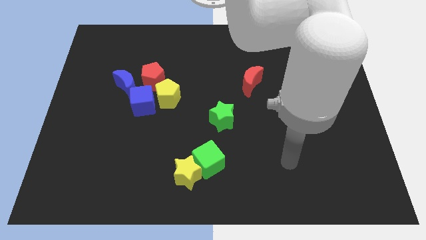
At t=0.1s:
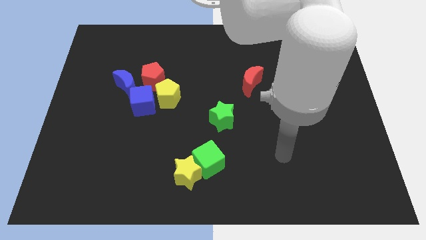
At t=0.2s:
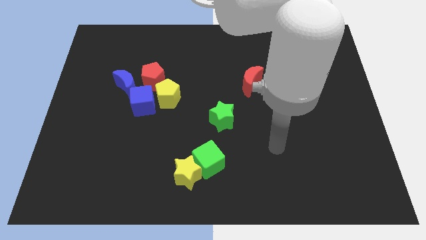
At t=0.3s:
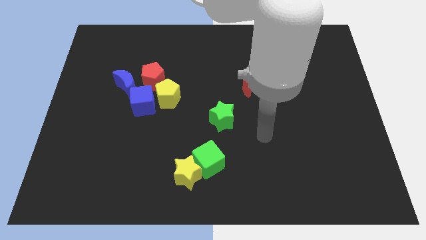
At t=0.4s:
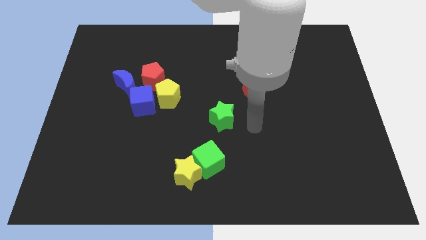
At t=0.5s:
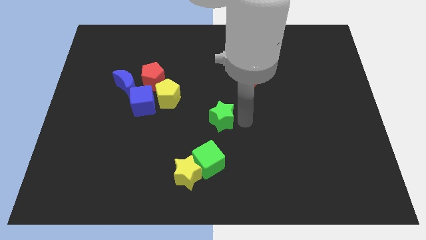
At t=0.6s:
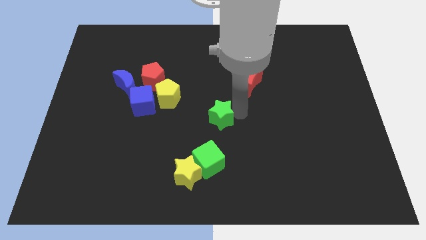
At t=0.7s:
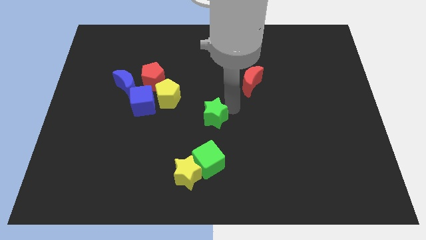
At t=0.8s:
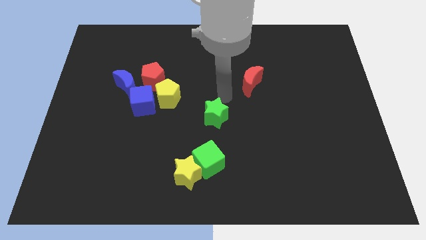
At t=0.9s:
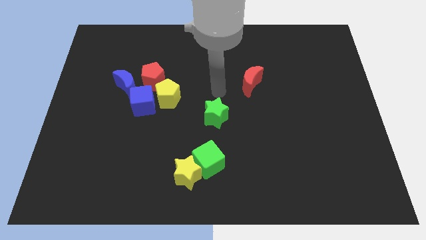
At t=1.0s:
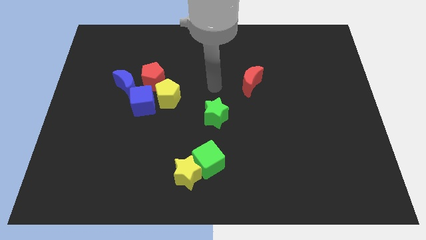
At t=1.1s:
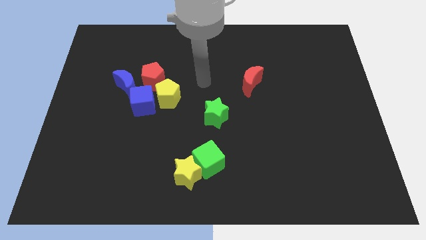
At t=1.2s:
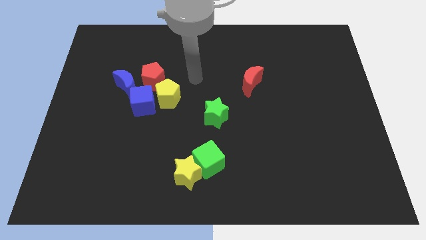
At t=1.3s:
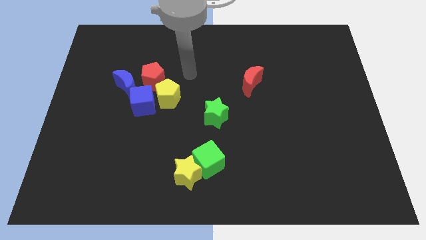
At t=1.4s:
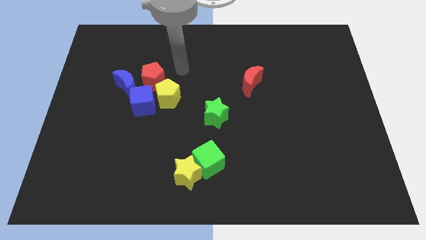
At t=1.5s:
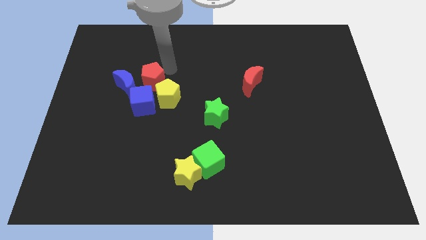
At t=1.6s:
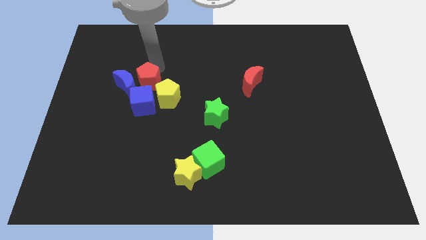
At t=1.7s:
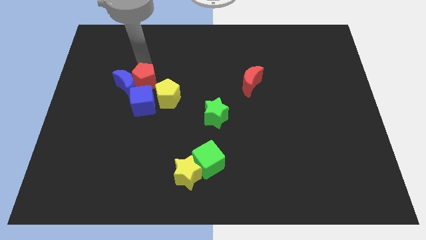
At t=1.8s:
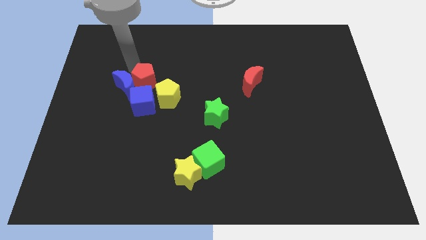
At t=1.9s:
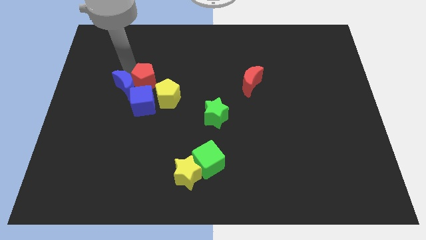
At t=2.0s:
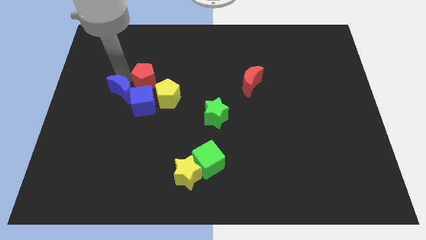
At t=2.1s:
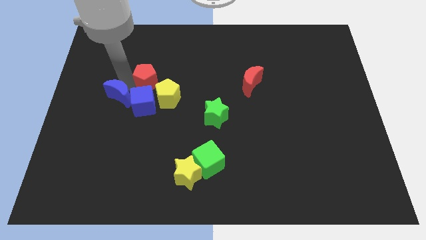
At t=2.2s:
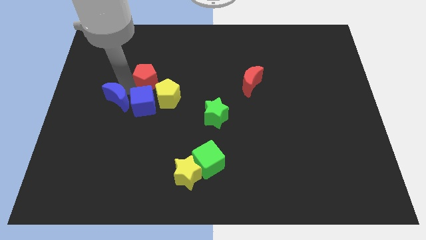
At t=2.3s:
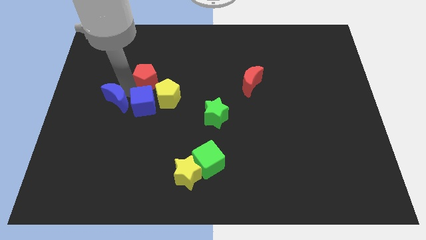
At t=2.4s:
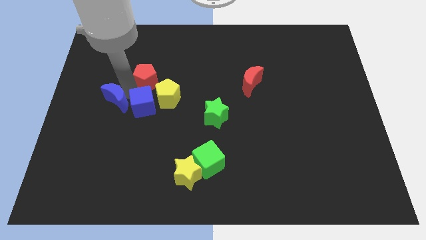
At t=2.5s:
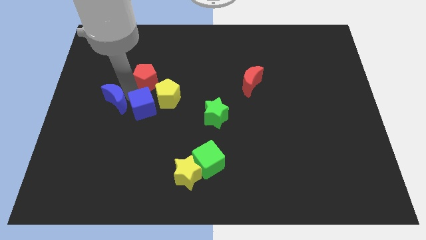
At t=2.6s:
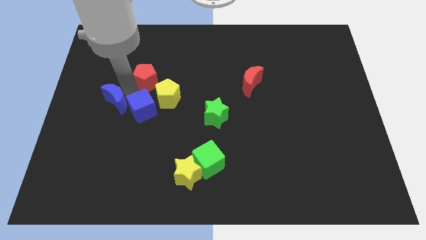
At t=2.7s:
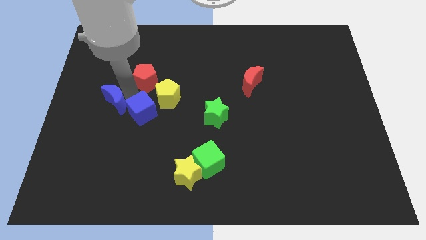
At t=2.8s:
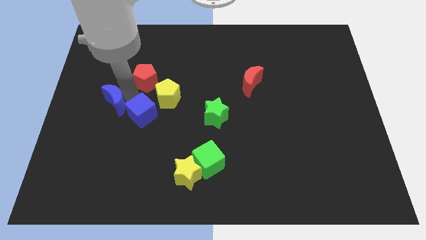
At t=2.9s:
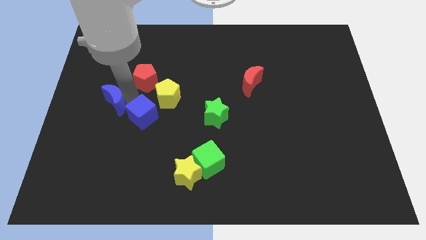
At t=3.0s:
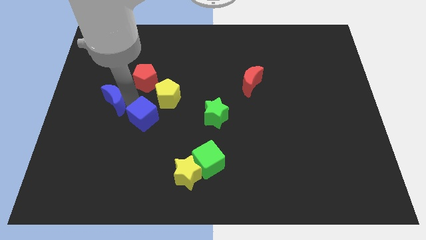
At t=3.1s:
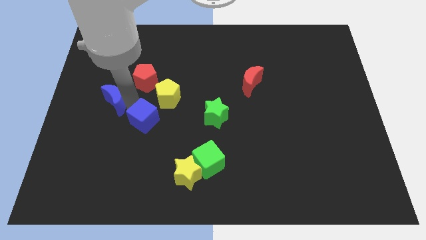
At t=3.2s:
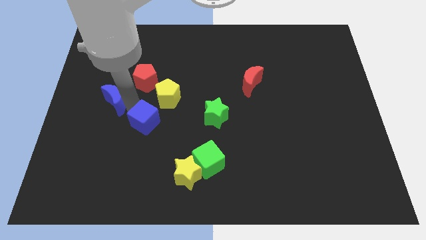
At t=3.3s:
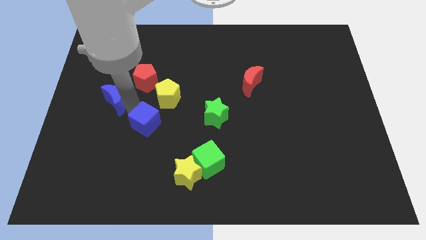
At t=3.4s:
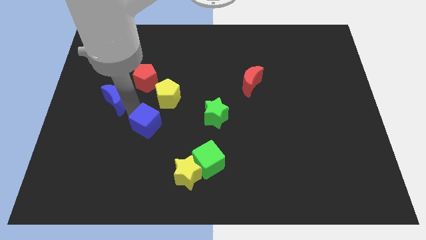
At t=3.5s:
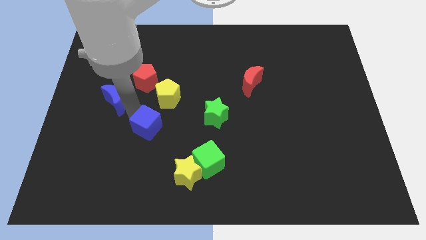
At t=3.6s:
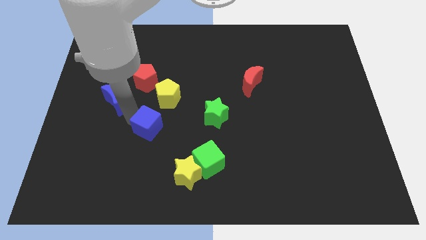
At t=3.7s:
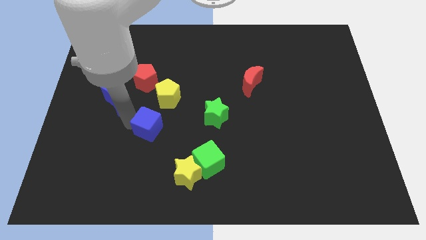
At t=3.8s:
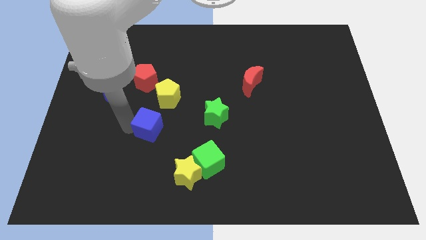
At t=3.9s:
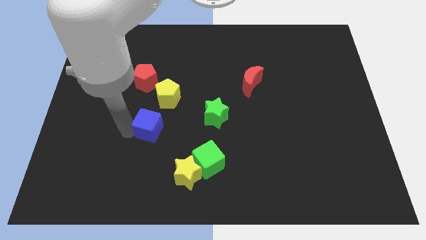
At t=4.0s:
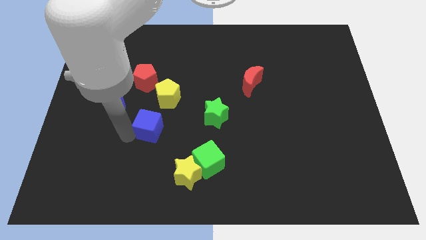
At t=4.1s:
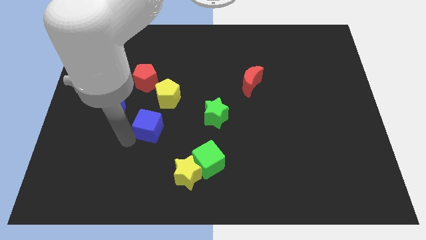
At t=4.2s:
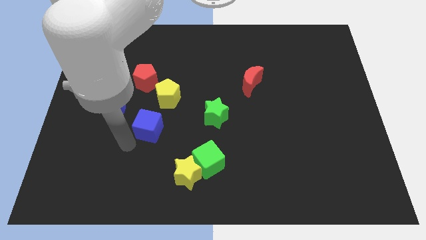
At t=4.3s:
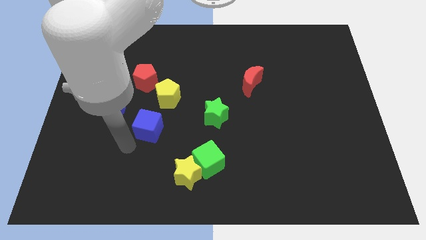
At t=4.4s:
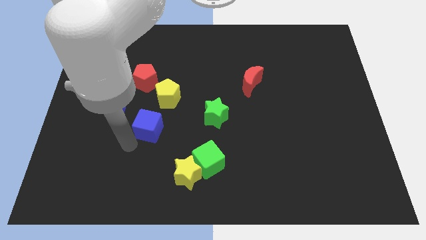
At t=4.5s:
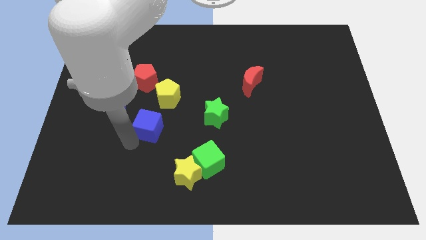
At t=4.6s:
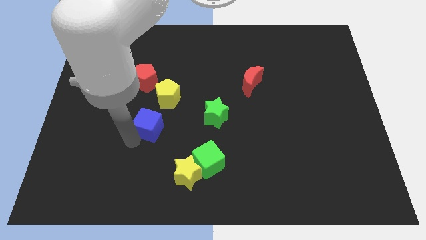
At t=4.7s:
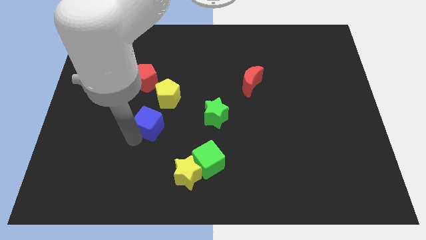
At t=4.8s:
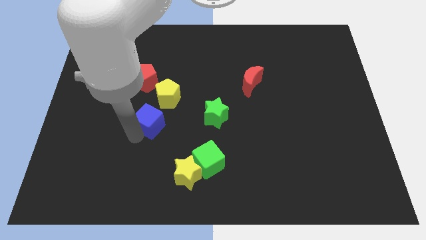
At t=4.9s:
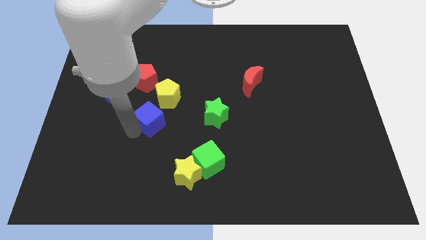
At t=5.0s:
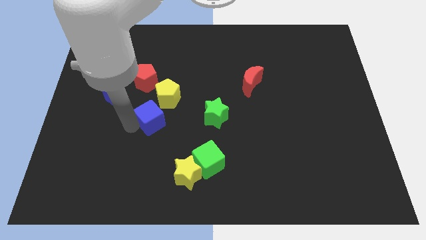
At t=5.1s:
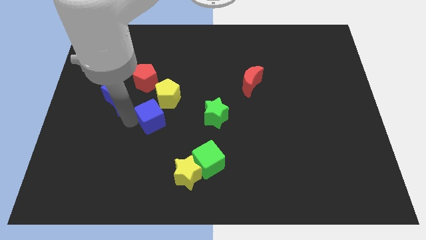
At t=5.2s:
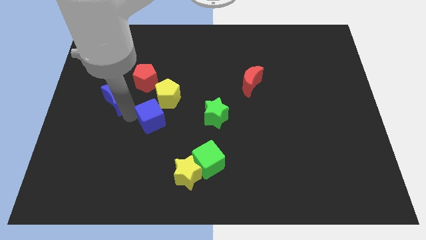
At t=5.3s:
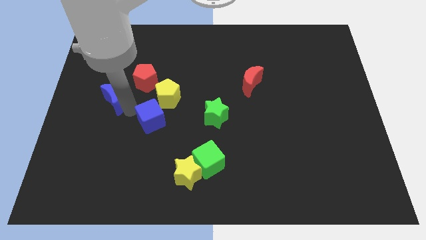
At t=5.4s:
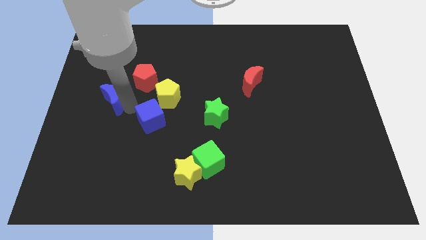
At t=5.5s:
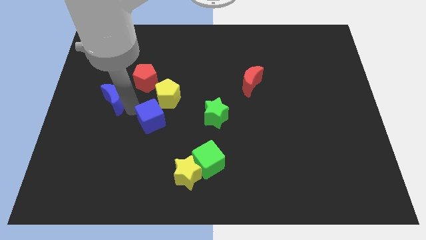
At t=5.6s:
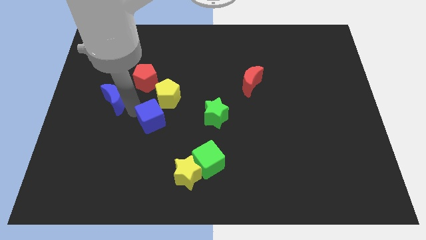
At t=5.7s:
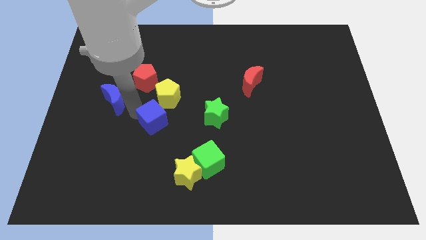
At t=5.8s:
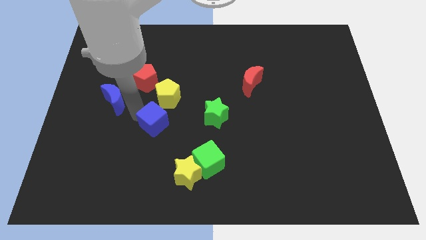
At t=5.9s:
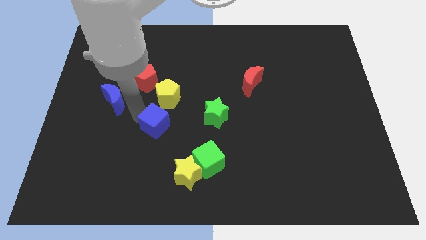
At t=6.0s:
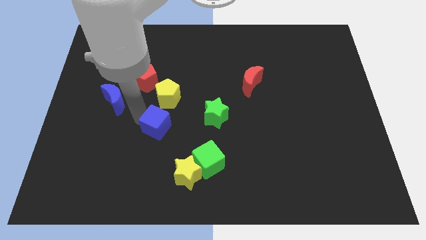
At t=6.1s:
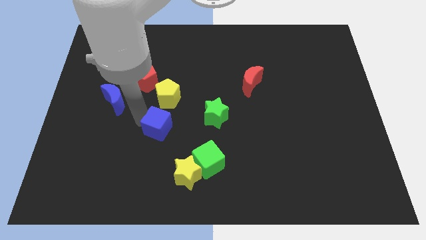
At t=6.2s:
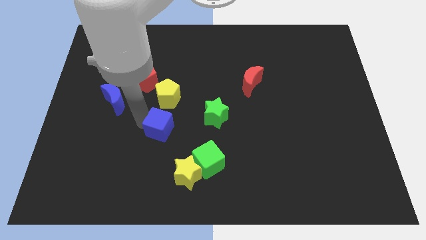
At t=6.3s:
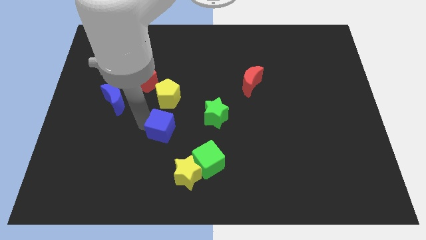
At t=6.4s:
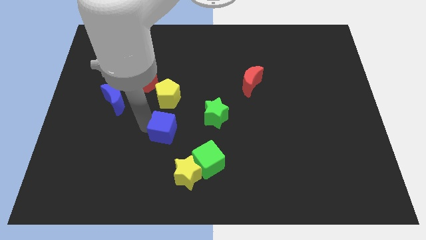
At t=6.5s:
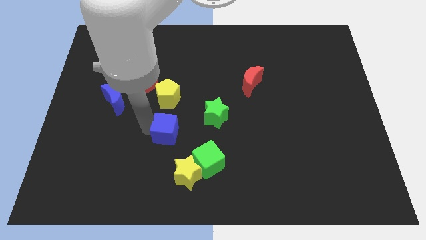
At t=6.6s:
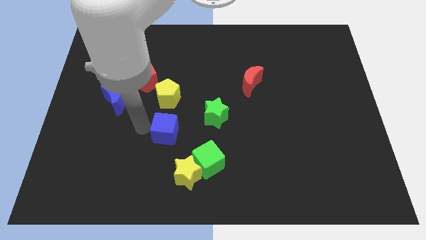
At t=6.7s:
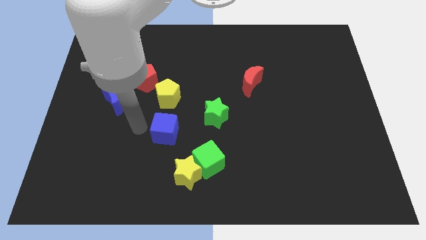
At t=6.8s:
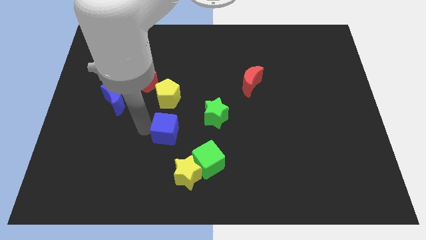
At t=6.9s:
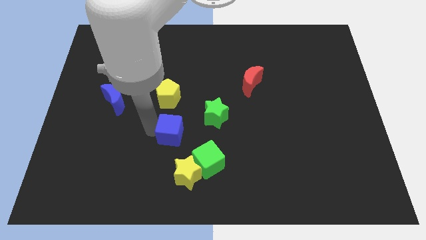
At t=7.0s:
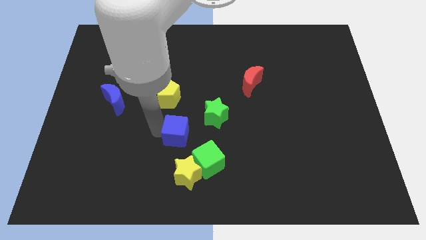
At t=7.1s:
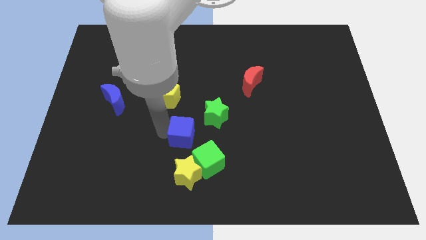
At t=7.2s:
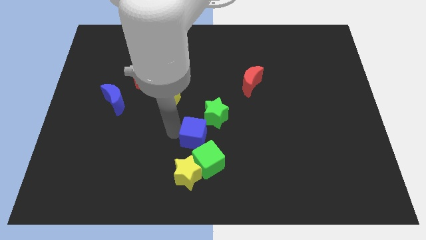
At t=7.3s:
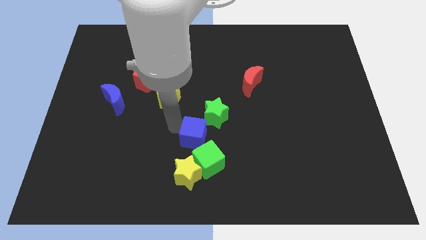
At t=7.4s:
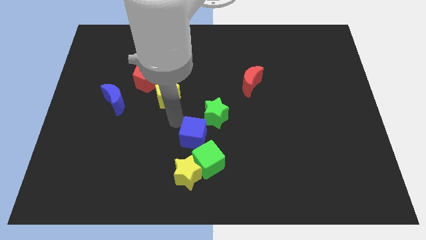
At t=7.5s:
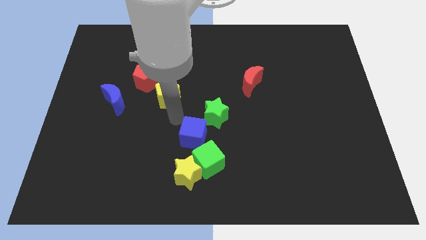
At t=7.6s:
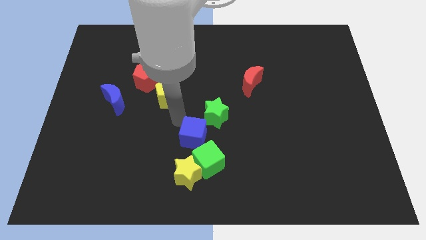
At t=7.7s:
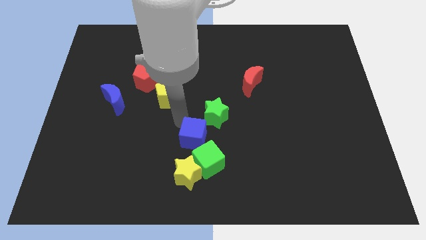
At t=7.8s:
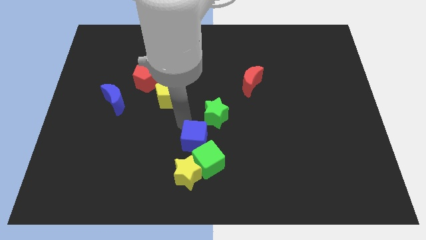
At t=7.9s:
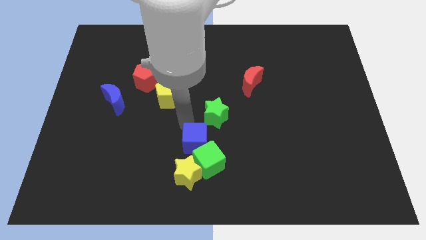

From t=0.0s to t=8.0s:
slide the blue cube to the top right side of the yellow star
